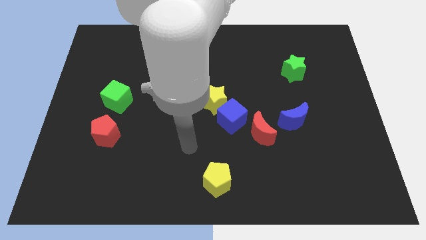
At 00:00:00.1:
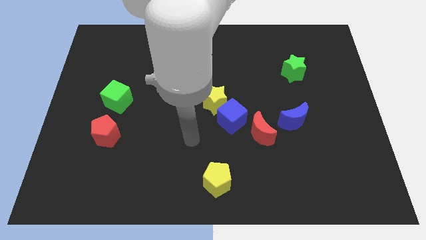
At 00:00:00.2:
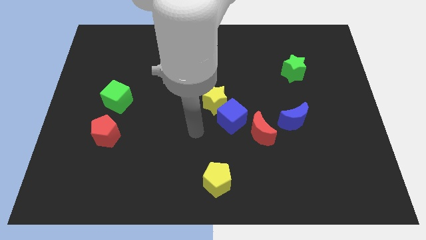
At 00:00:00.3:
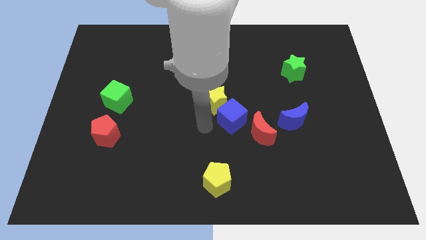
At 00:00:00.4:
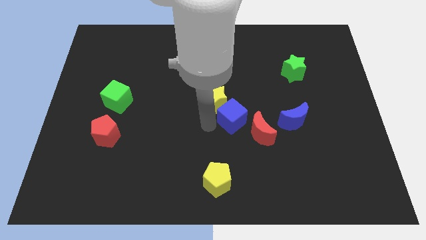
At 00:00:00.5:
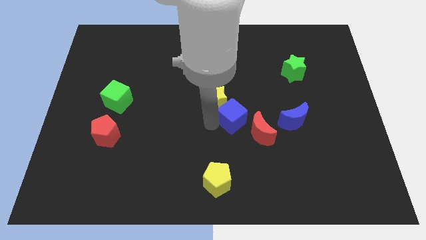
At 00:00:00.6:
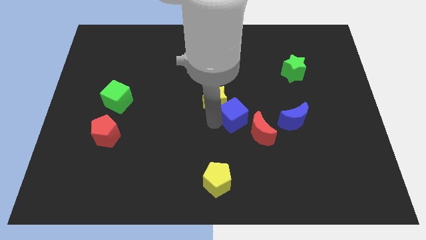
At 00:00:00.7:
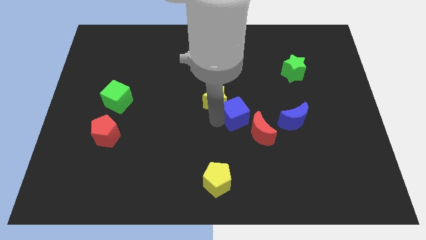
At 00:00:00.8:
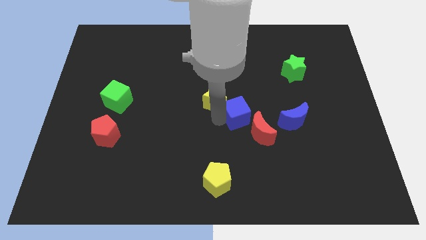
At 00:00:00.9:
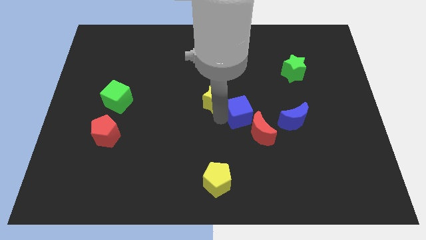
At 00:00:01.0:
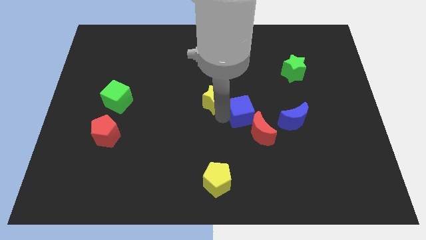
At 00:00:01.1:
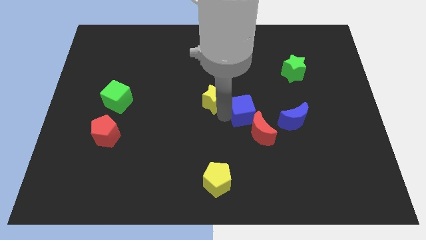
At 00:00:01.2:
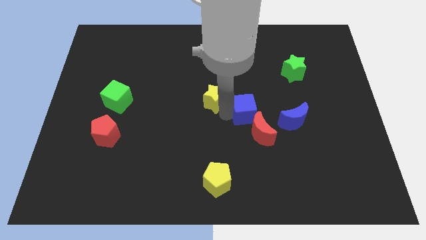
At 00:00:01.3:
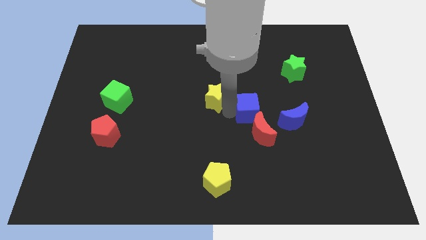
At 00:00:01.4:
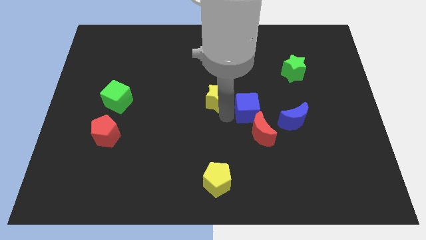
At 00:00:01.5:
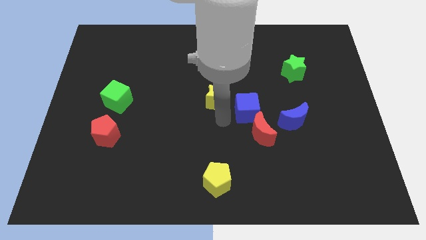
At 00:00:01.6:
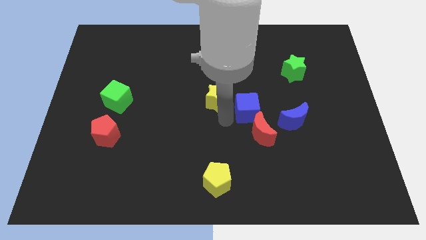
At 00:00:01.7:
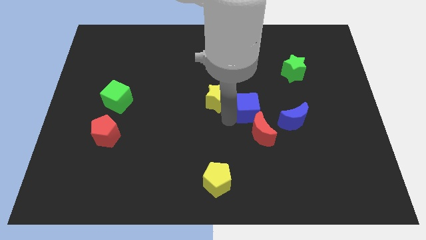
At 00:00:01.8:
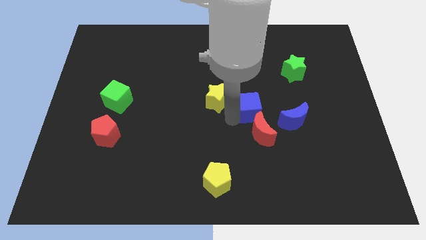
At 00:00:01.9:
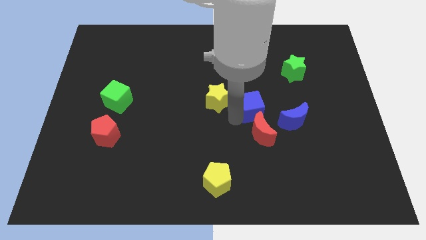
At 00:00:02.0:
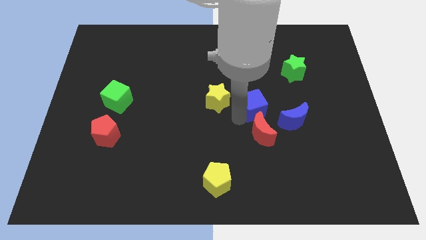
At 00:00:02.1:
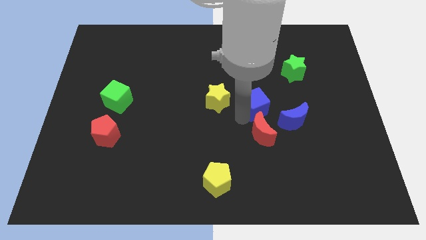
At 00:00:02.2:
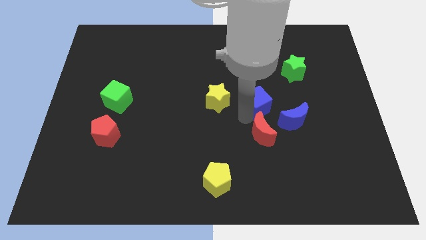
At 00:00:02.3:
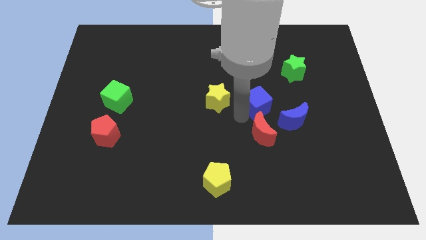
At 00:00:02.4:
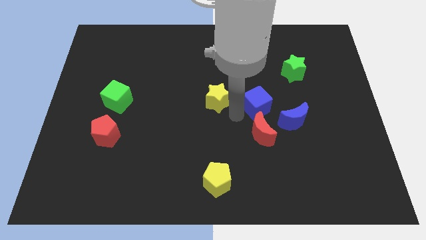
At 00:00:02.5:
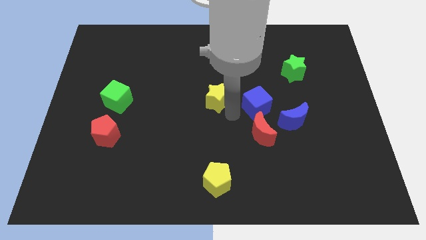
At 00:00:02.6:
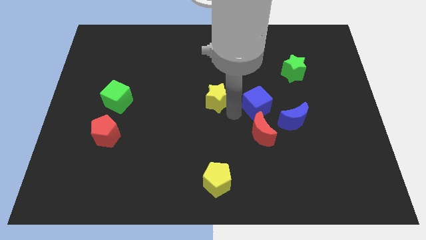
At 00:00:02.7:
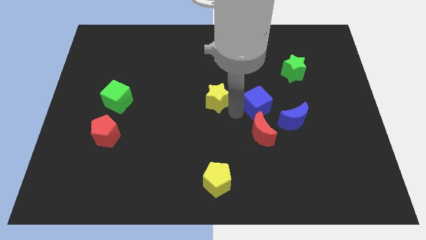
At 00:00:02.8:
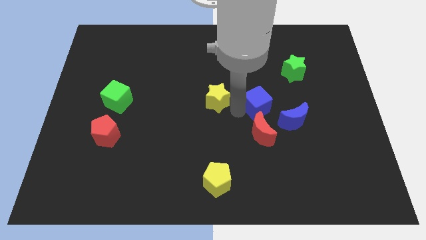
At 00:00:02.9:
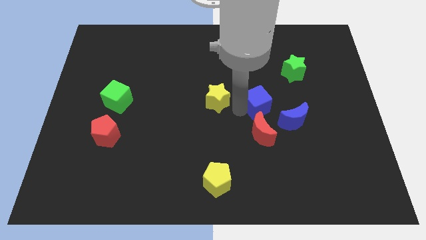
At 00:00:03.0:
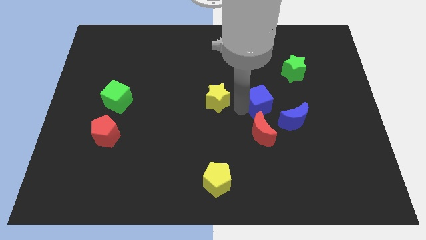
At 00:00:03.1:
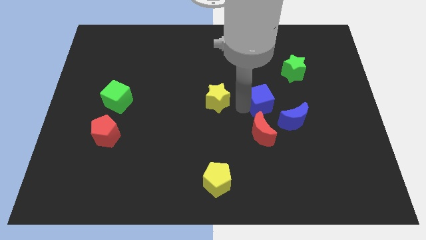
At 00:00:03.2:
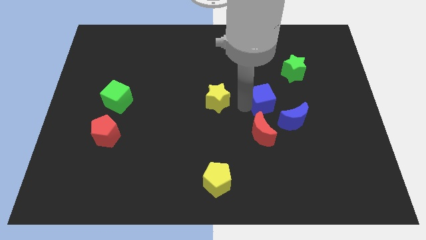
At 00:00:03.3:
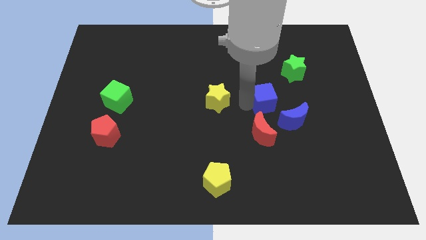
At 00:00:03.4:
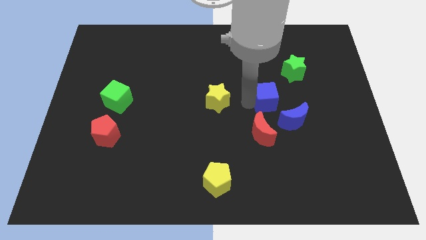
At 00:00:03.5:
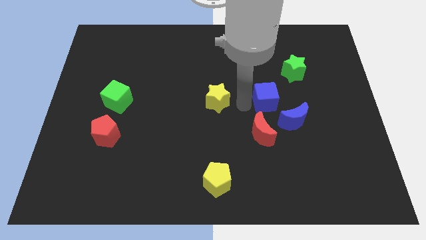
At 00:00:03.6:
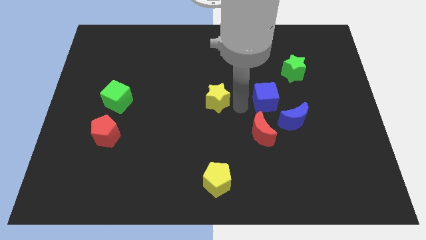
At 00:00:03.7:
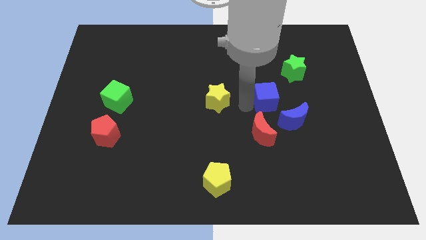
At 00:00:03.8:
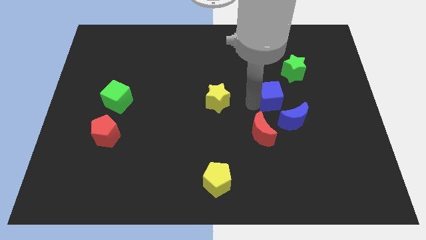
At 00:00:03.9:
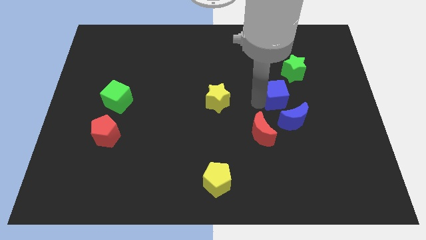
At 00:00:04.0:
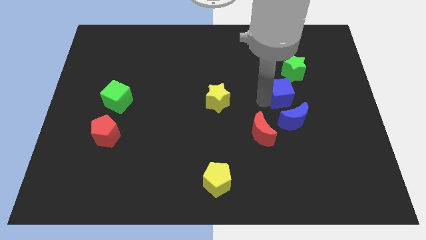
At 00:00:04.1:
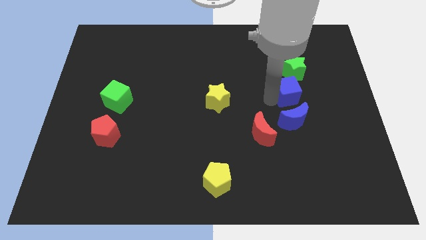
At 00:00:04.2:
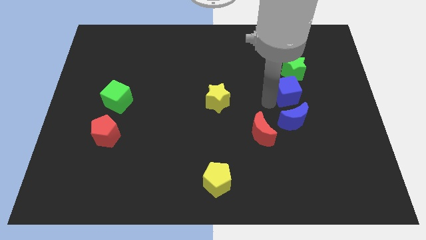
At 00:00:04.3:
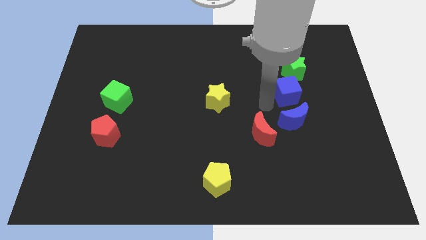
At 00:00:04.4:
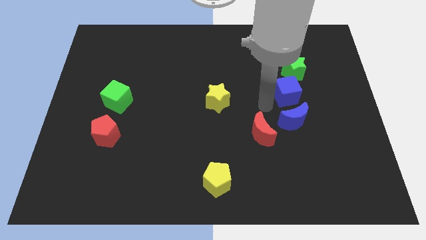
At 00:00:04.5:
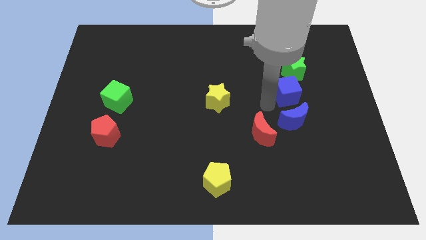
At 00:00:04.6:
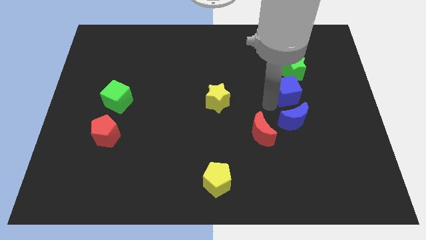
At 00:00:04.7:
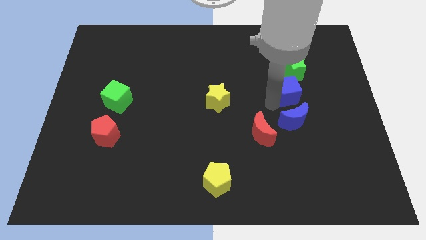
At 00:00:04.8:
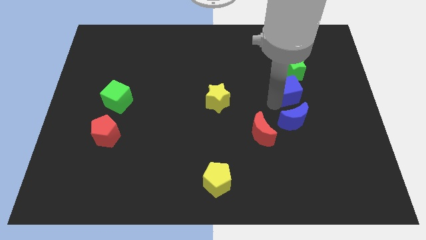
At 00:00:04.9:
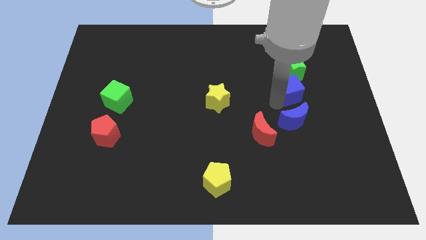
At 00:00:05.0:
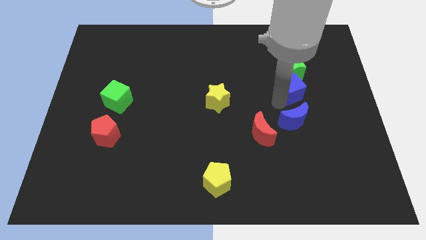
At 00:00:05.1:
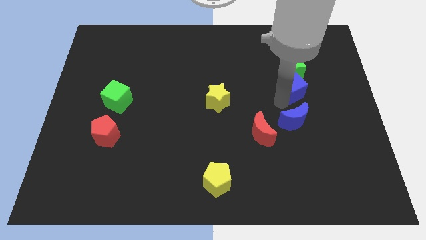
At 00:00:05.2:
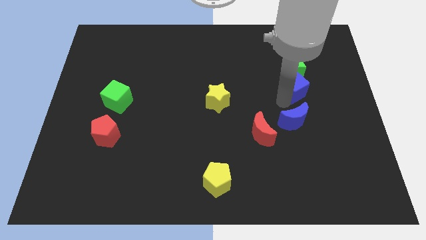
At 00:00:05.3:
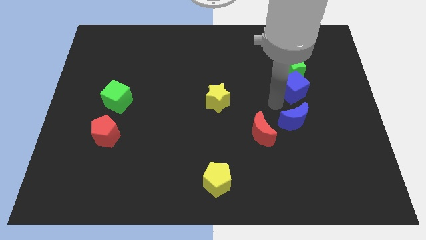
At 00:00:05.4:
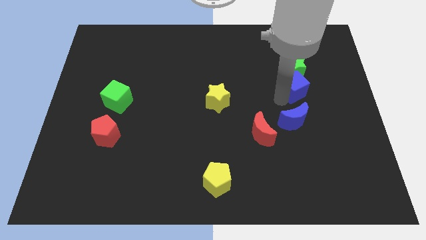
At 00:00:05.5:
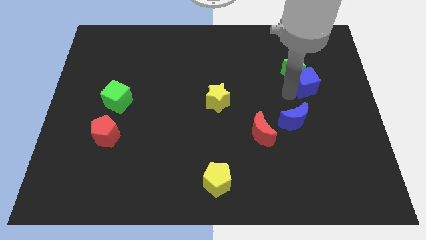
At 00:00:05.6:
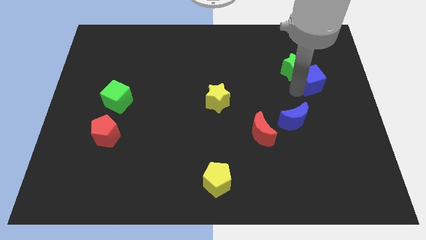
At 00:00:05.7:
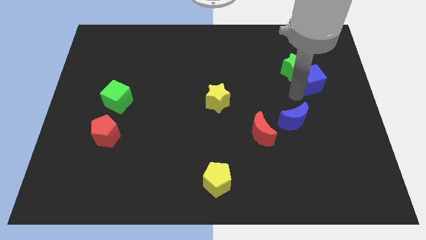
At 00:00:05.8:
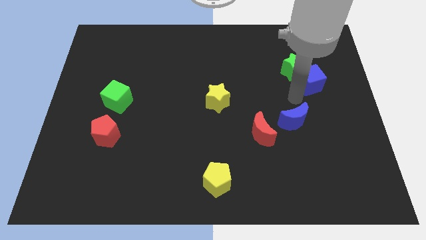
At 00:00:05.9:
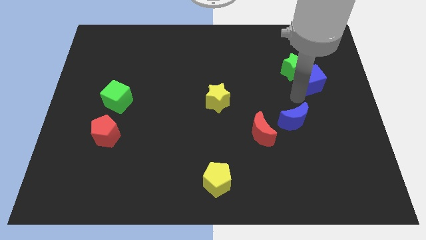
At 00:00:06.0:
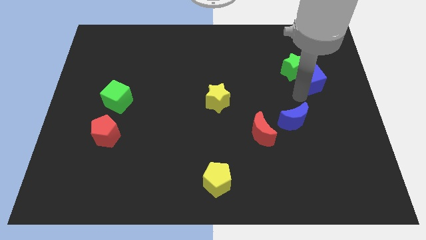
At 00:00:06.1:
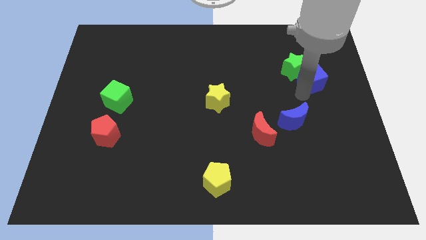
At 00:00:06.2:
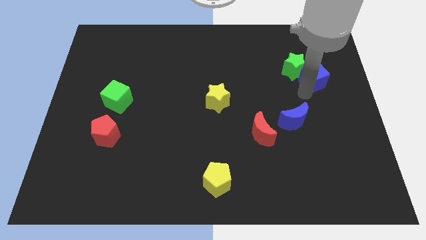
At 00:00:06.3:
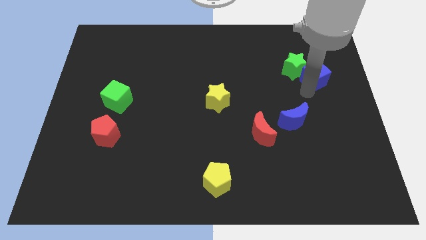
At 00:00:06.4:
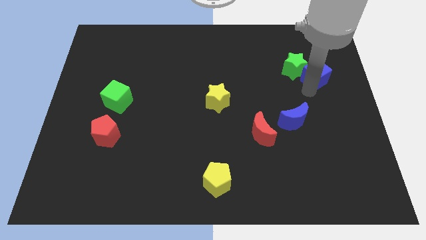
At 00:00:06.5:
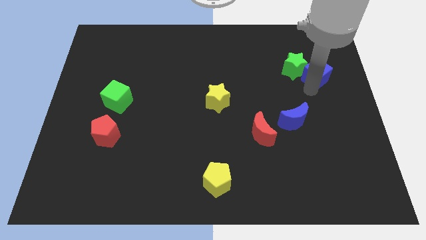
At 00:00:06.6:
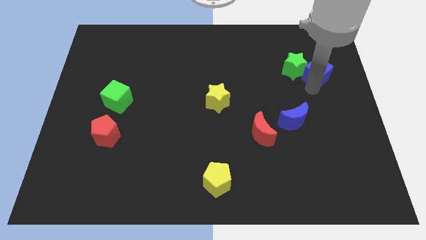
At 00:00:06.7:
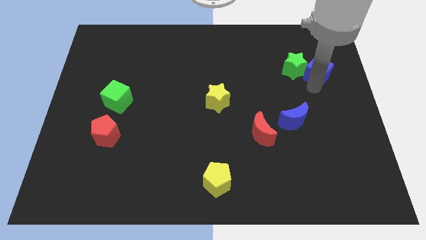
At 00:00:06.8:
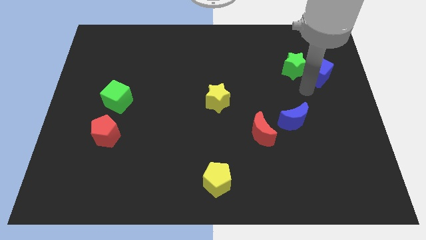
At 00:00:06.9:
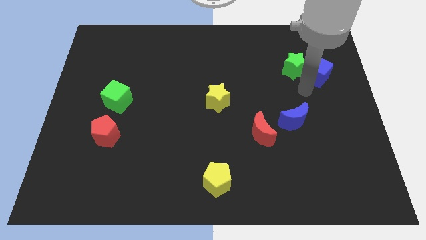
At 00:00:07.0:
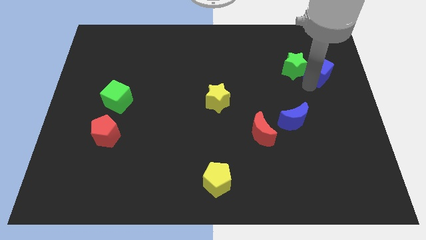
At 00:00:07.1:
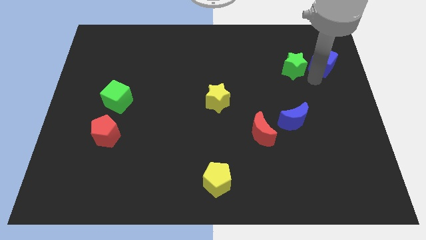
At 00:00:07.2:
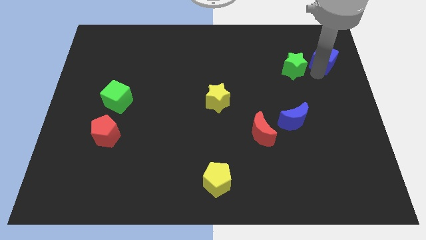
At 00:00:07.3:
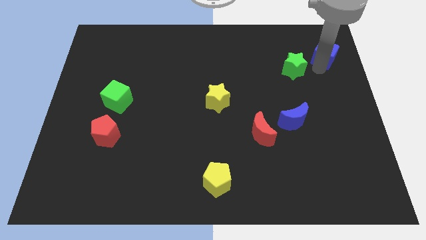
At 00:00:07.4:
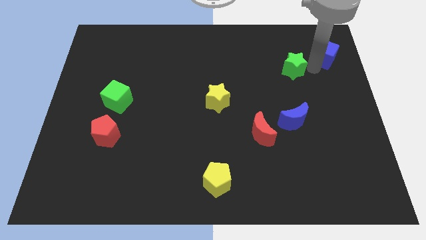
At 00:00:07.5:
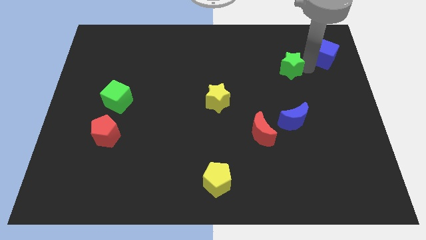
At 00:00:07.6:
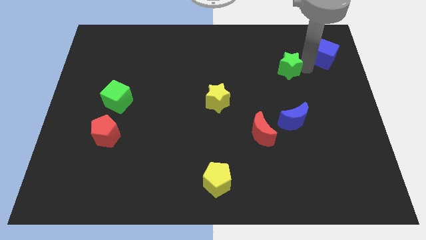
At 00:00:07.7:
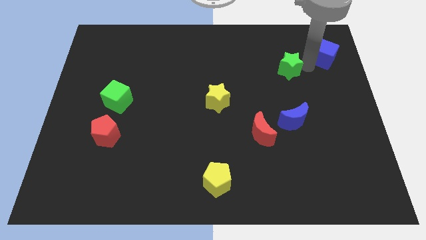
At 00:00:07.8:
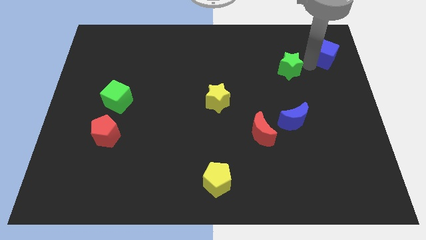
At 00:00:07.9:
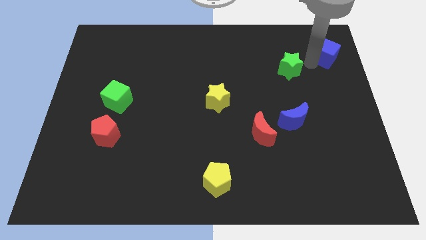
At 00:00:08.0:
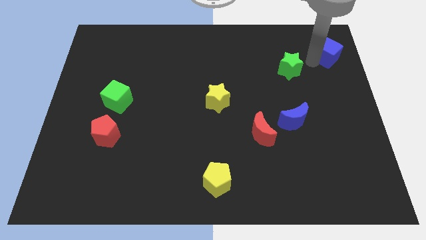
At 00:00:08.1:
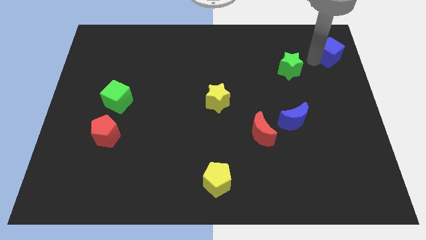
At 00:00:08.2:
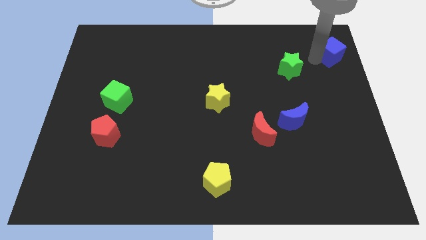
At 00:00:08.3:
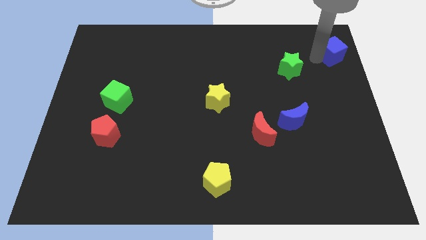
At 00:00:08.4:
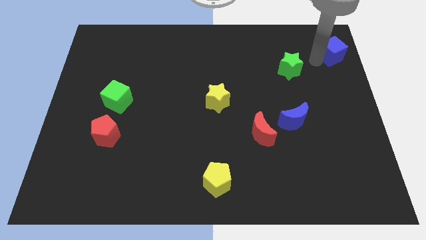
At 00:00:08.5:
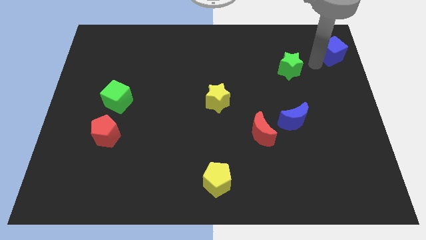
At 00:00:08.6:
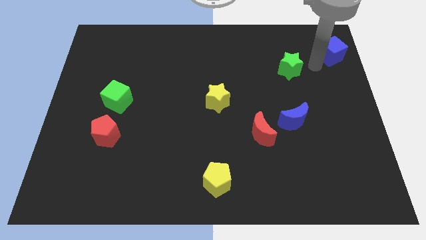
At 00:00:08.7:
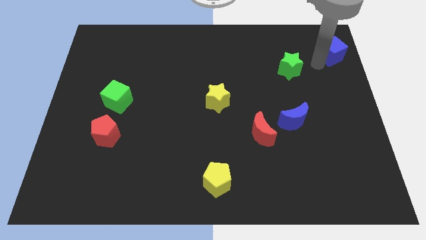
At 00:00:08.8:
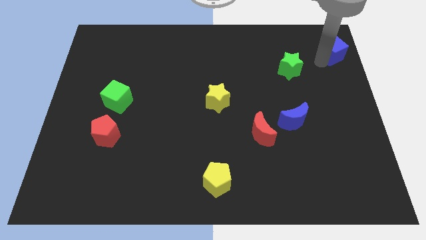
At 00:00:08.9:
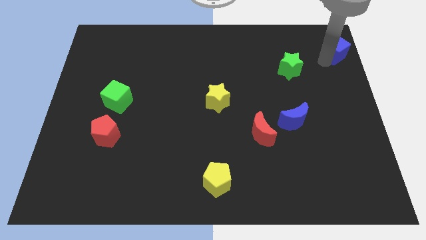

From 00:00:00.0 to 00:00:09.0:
put the blue cube to the top right corner
